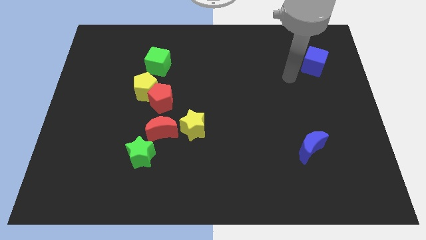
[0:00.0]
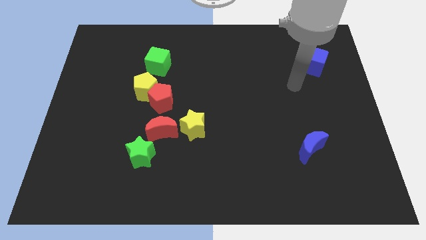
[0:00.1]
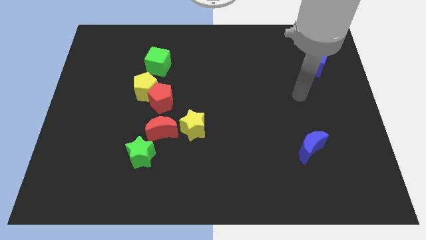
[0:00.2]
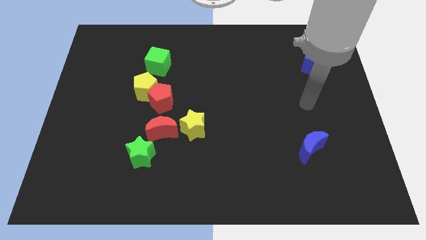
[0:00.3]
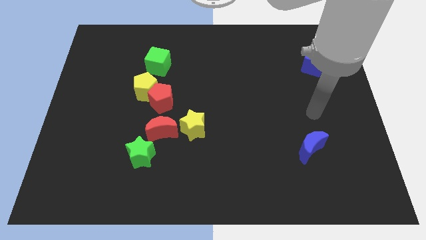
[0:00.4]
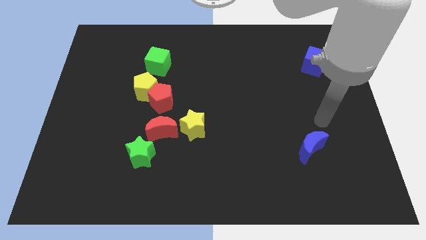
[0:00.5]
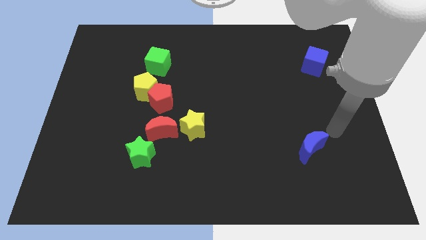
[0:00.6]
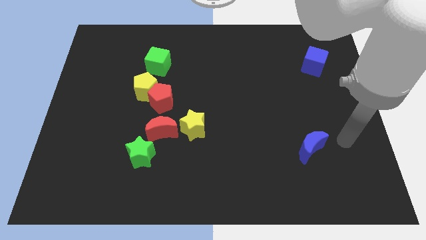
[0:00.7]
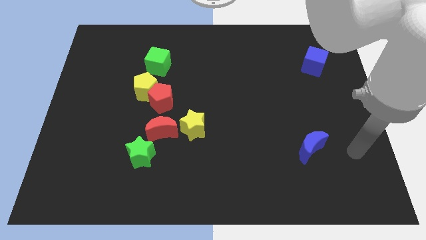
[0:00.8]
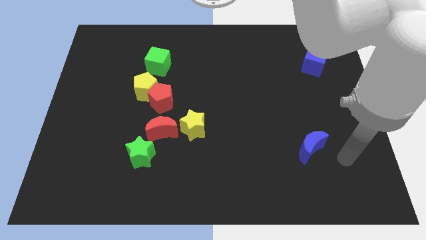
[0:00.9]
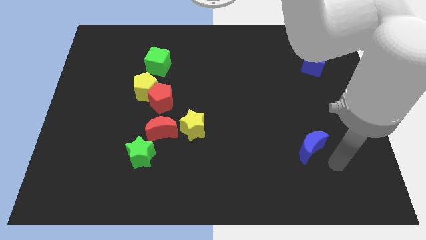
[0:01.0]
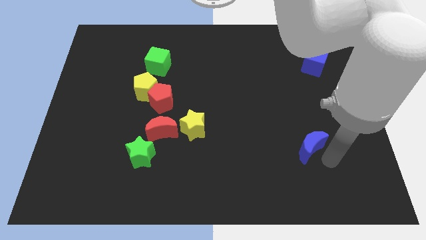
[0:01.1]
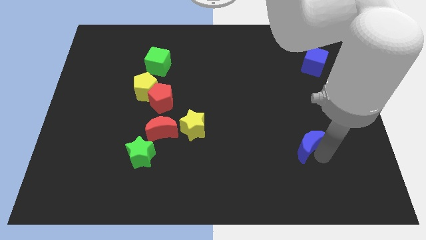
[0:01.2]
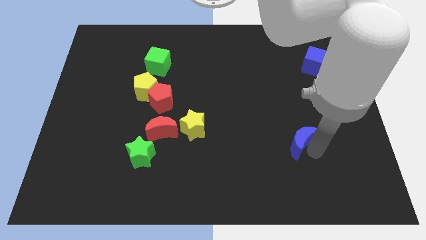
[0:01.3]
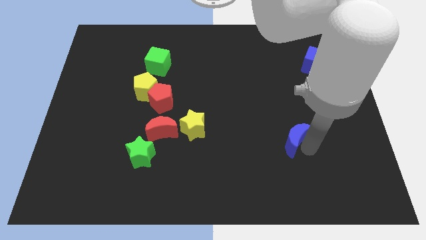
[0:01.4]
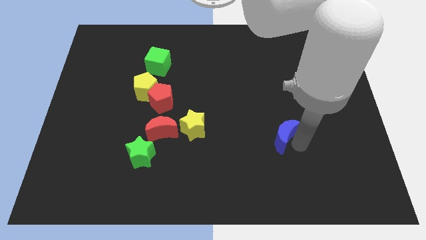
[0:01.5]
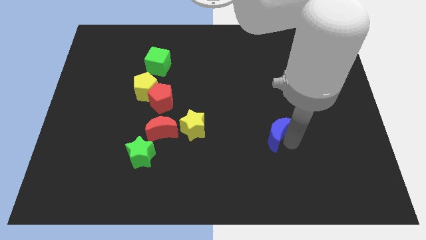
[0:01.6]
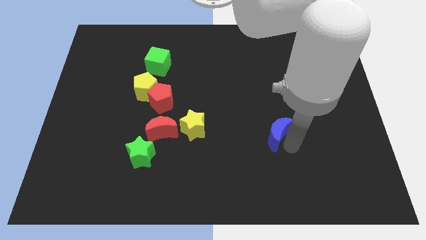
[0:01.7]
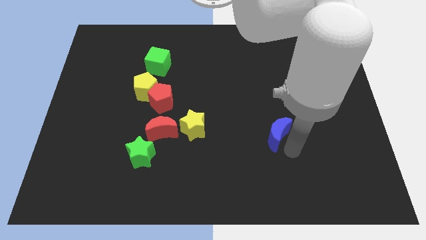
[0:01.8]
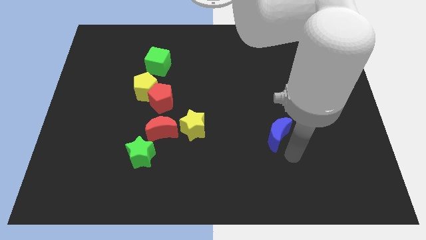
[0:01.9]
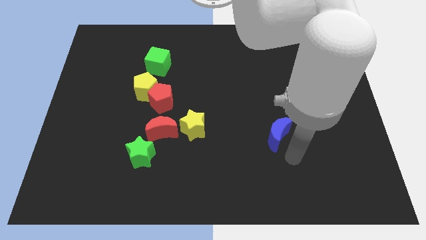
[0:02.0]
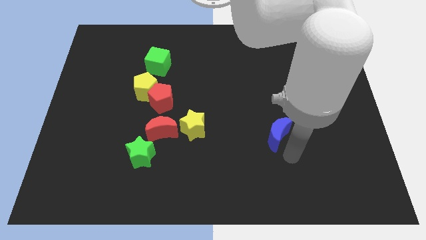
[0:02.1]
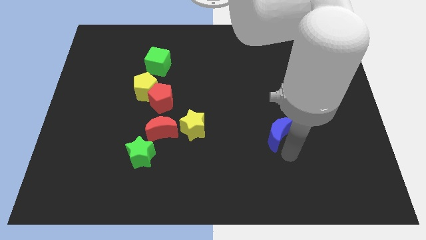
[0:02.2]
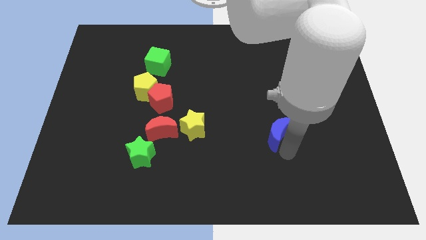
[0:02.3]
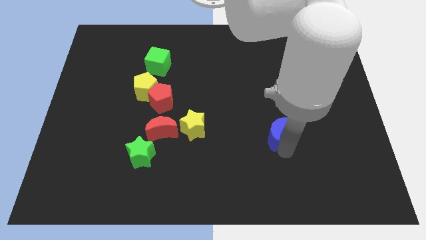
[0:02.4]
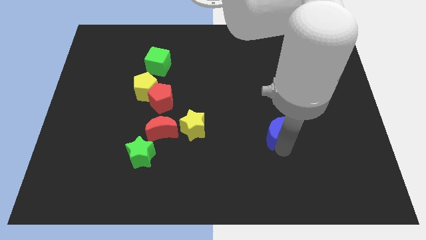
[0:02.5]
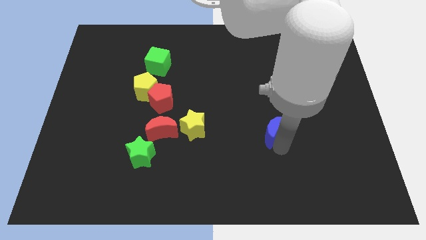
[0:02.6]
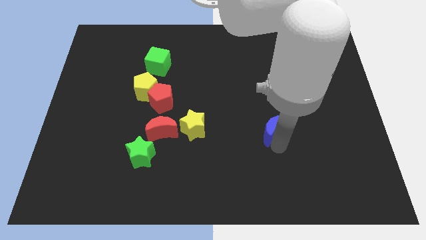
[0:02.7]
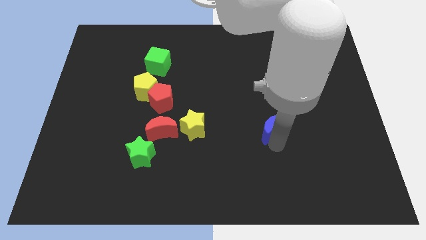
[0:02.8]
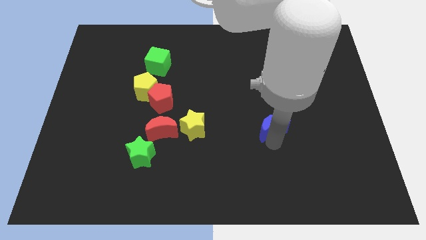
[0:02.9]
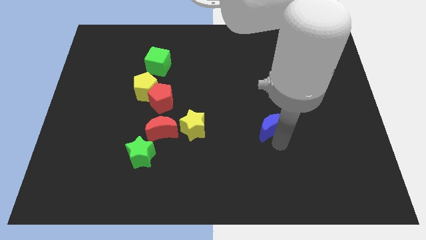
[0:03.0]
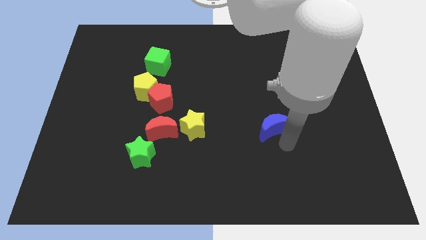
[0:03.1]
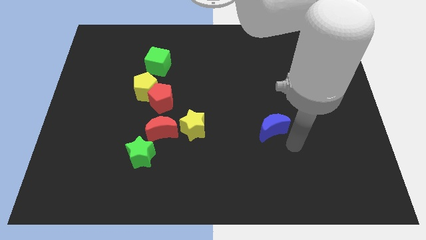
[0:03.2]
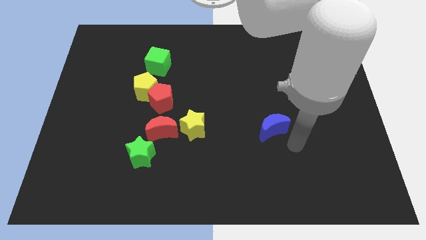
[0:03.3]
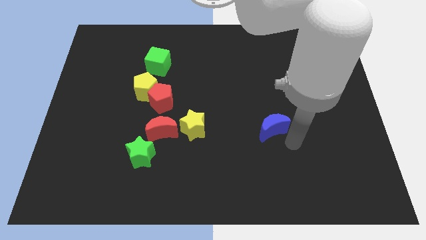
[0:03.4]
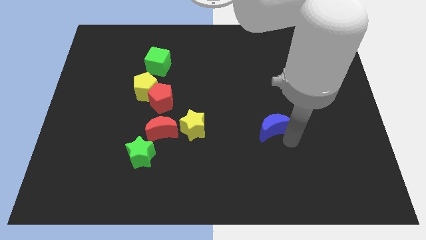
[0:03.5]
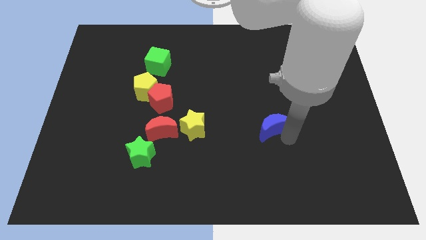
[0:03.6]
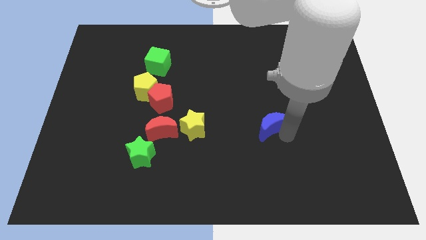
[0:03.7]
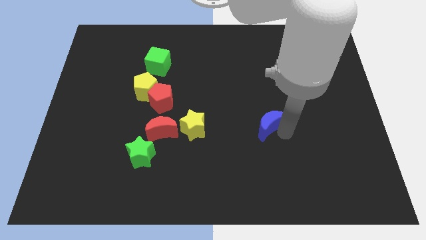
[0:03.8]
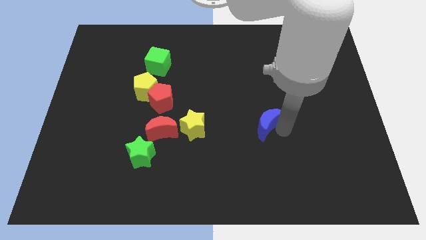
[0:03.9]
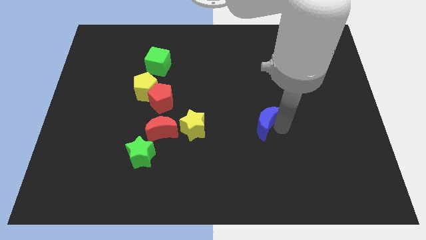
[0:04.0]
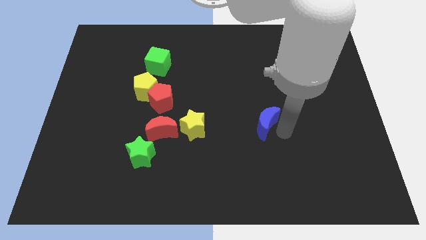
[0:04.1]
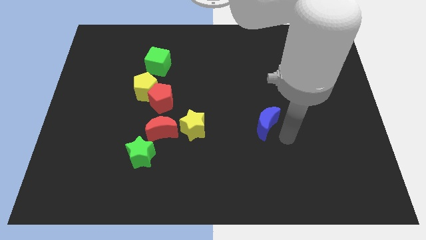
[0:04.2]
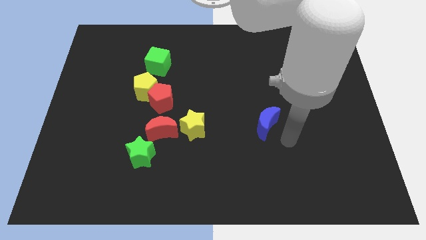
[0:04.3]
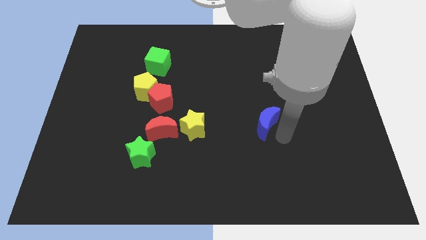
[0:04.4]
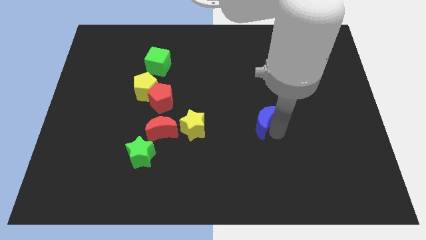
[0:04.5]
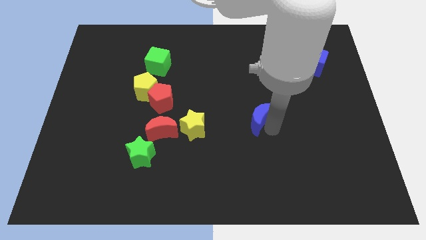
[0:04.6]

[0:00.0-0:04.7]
put the blue moon to the center of the board

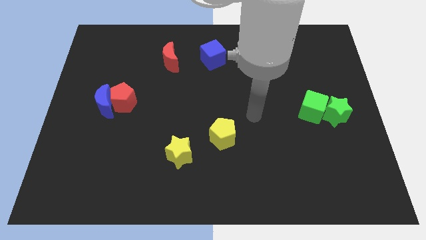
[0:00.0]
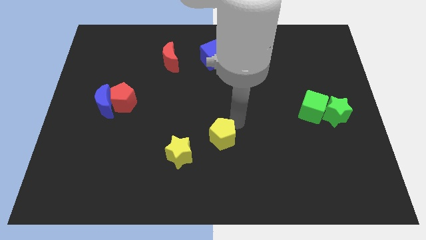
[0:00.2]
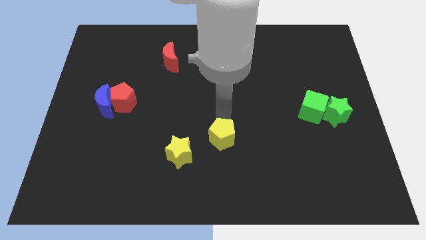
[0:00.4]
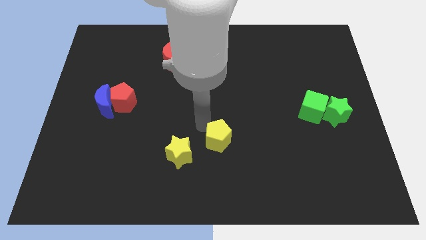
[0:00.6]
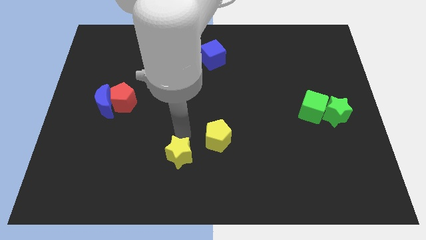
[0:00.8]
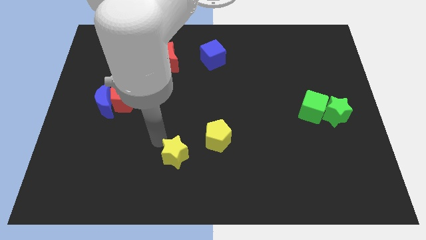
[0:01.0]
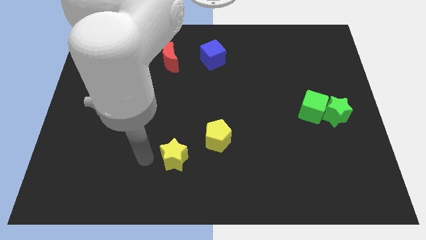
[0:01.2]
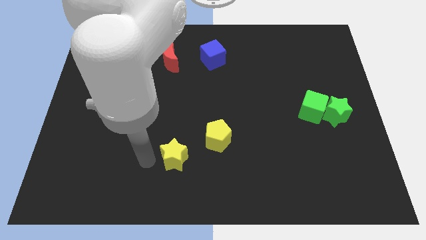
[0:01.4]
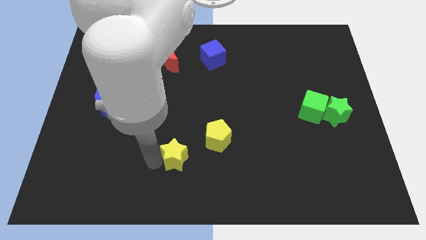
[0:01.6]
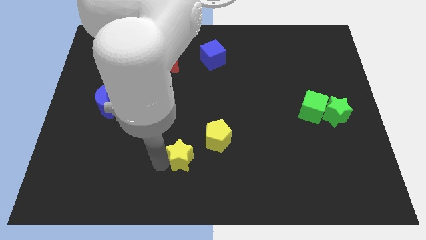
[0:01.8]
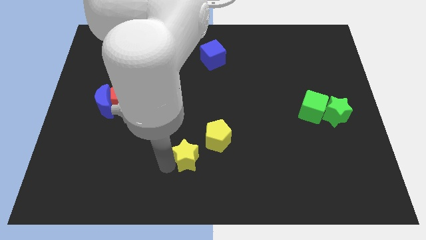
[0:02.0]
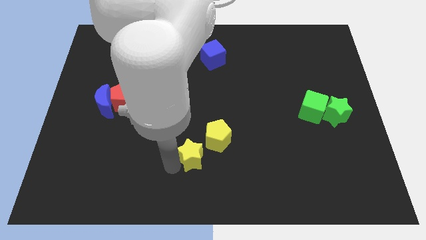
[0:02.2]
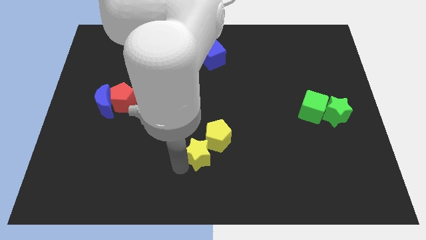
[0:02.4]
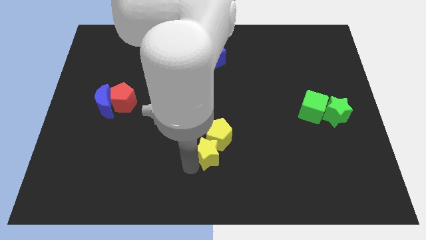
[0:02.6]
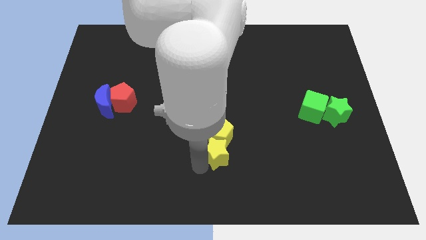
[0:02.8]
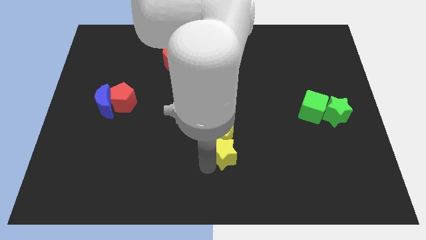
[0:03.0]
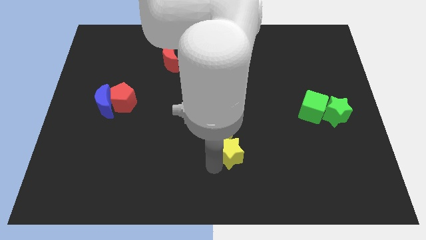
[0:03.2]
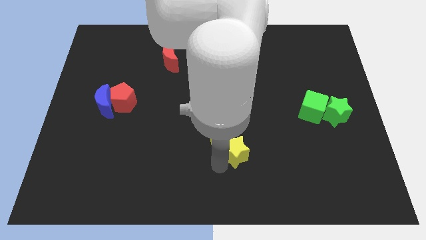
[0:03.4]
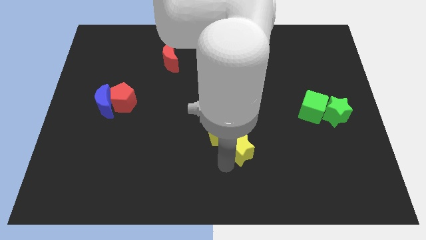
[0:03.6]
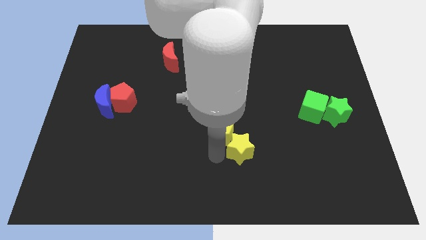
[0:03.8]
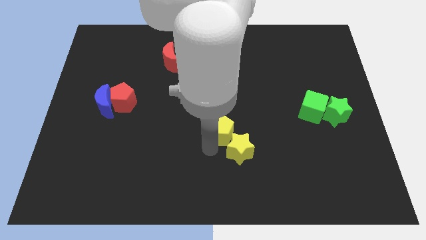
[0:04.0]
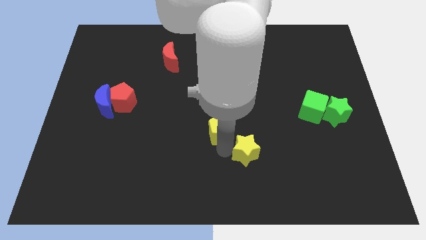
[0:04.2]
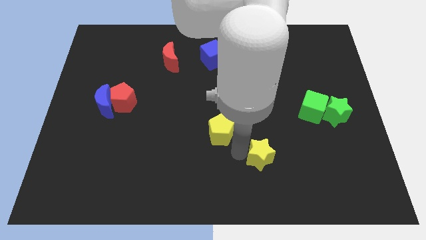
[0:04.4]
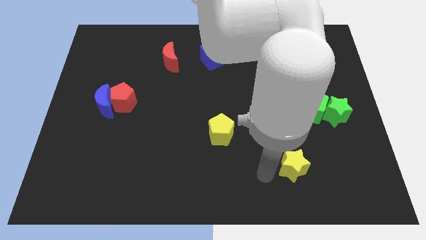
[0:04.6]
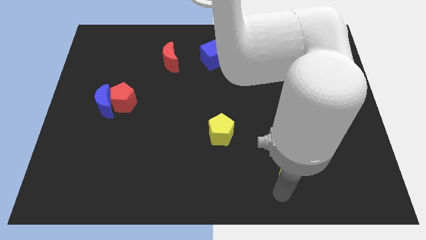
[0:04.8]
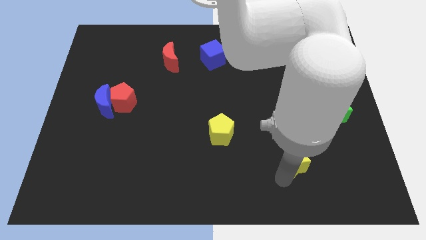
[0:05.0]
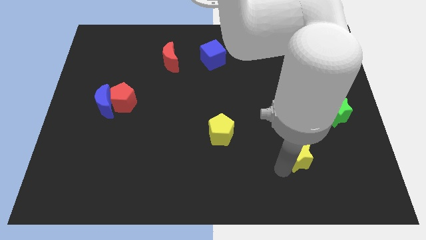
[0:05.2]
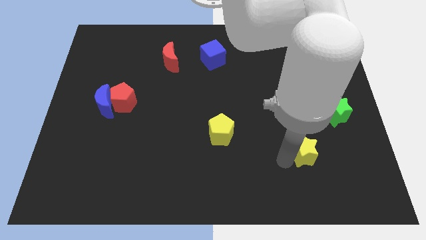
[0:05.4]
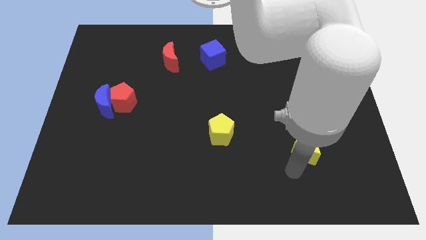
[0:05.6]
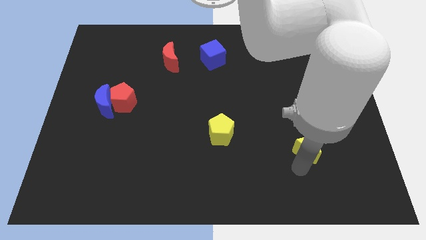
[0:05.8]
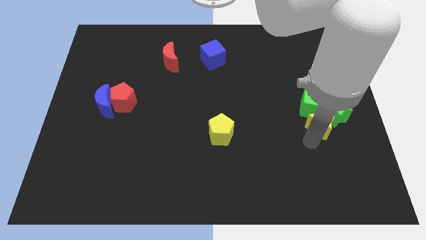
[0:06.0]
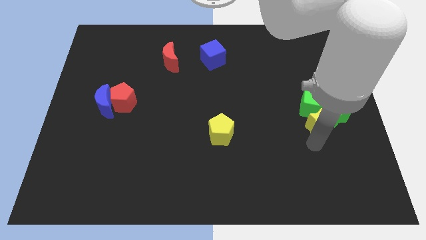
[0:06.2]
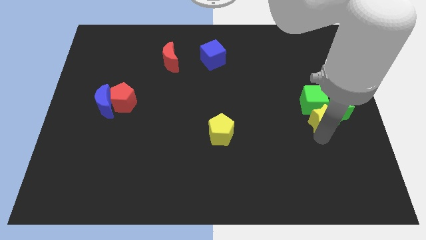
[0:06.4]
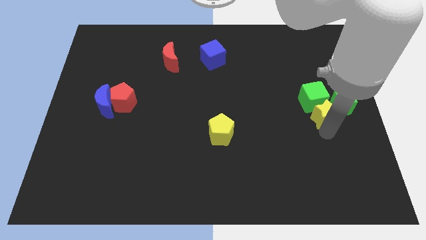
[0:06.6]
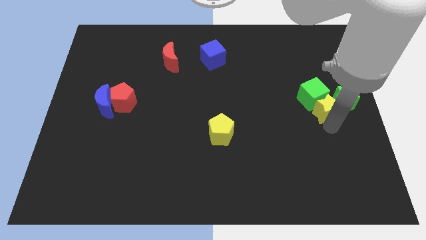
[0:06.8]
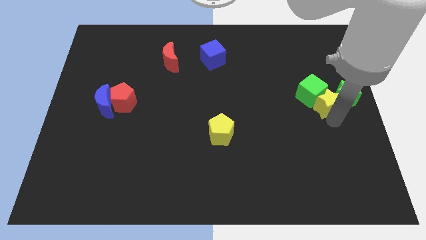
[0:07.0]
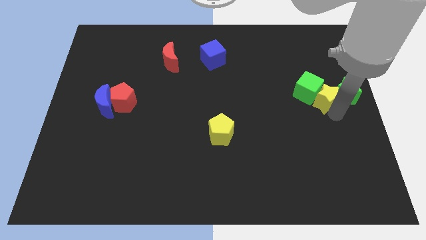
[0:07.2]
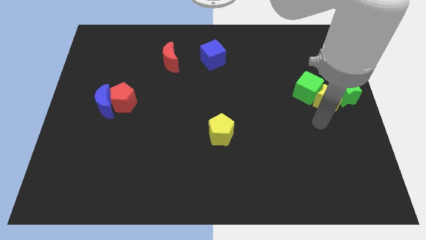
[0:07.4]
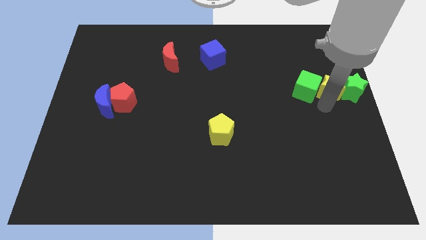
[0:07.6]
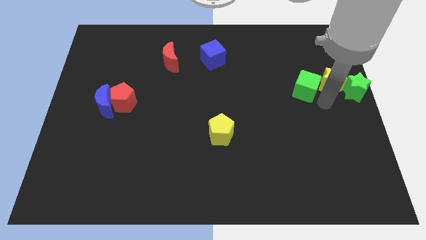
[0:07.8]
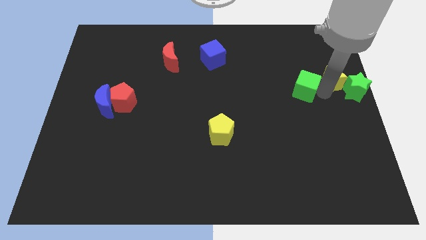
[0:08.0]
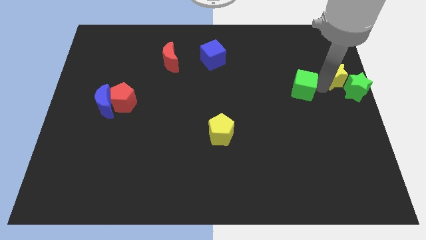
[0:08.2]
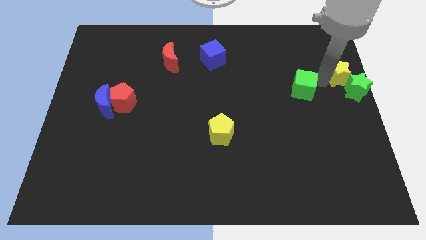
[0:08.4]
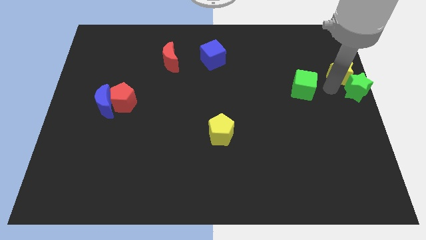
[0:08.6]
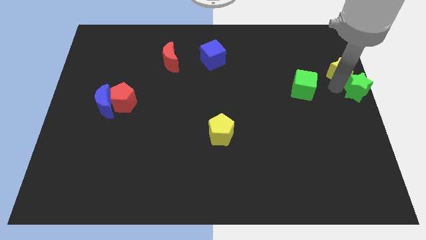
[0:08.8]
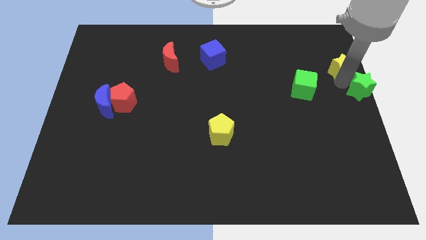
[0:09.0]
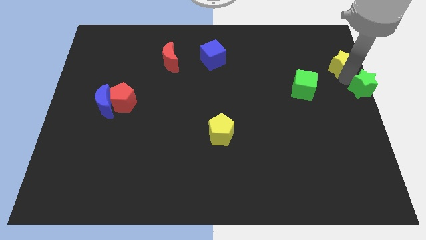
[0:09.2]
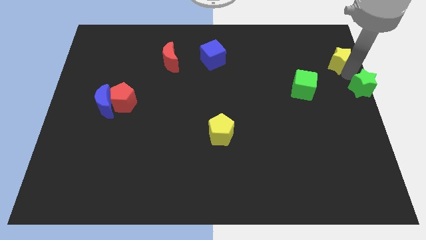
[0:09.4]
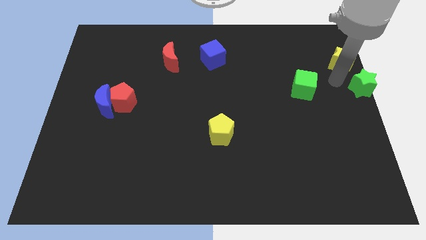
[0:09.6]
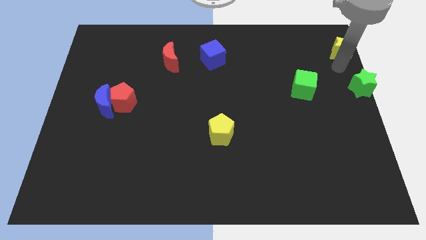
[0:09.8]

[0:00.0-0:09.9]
move the yellow star to the top right corner
